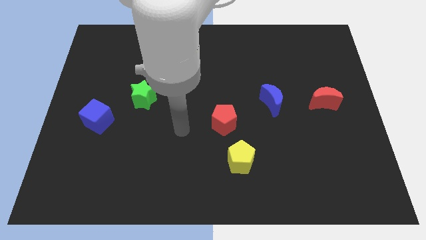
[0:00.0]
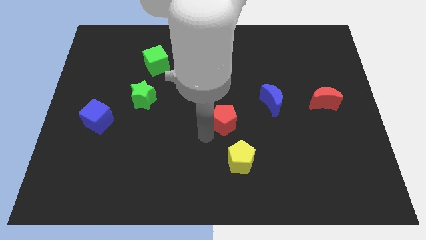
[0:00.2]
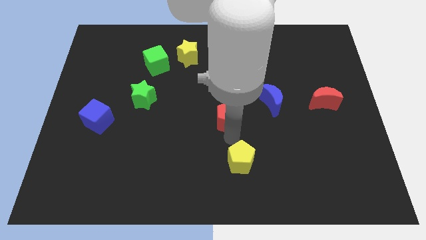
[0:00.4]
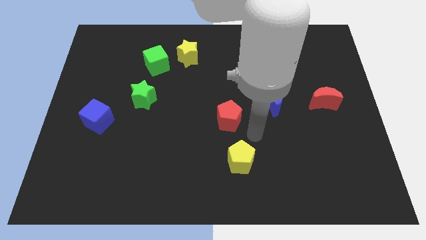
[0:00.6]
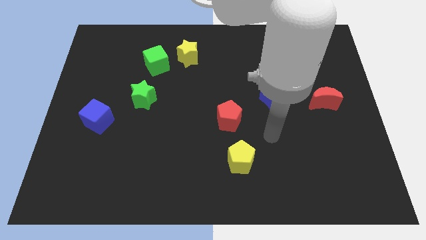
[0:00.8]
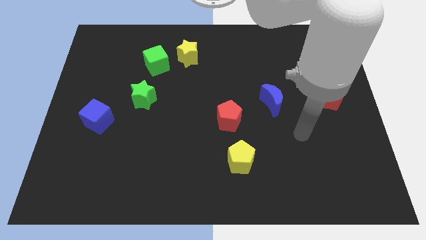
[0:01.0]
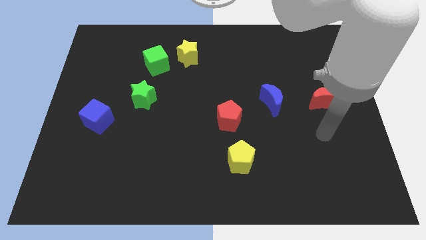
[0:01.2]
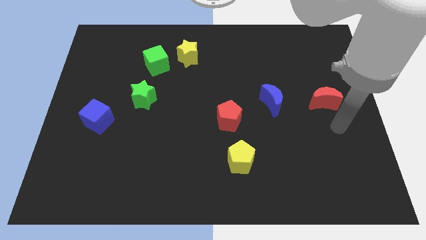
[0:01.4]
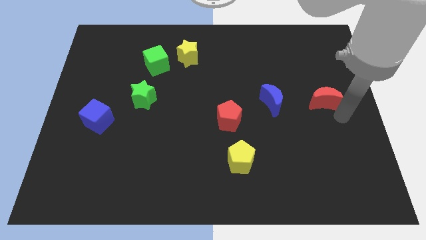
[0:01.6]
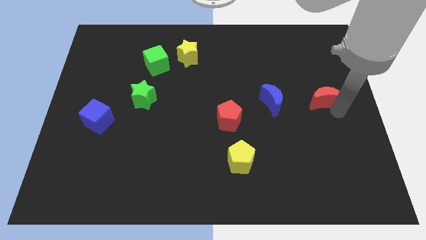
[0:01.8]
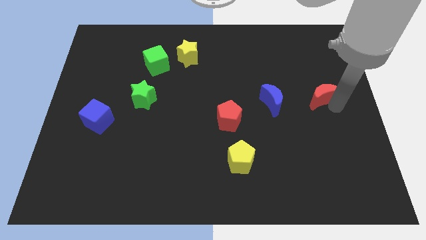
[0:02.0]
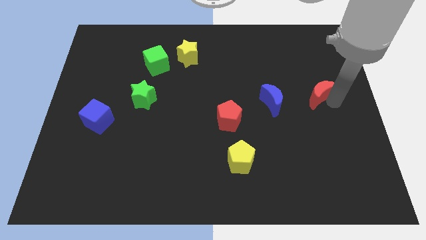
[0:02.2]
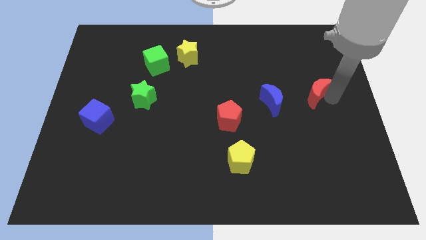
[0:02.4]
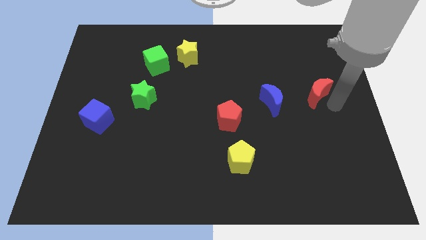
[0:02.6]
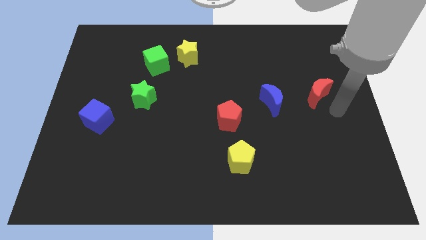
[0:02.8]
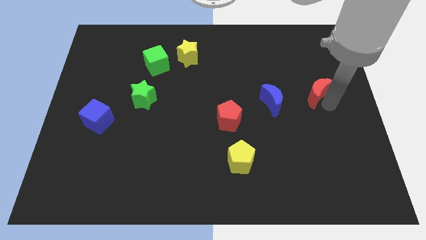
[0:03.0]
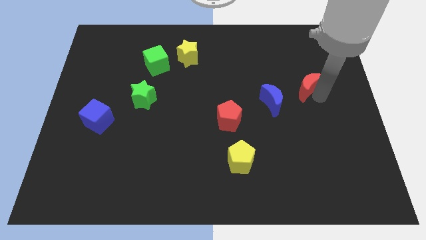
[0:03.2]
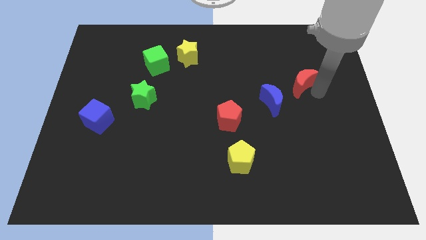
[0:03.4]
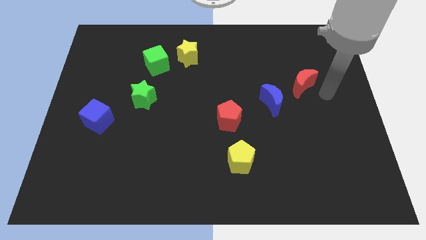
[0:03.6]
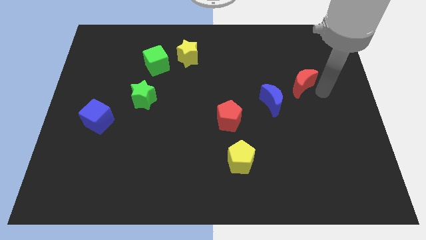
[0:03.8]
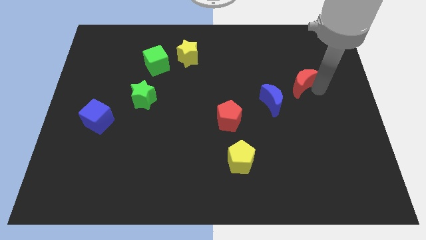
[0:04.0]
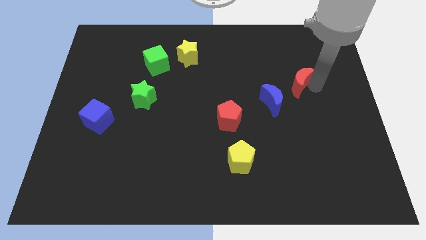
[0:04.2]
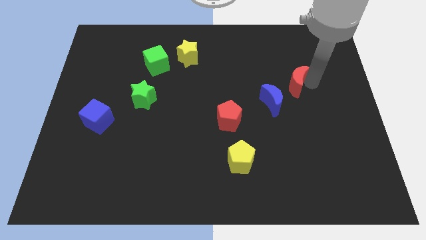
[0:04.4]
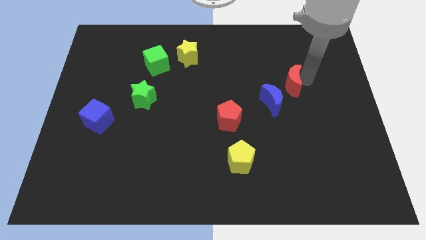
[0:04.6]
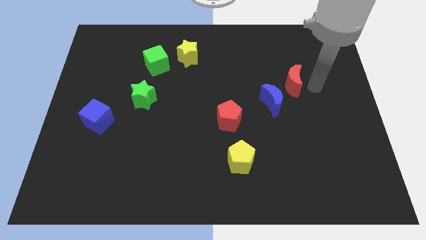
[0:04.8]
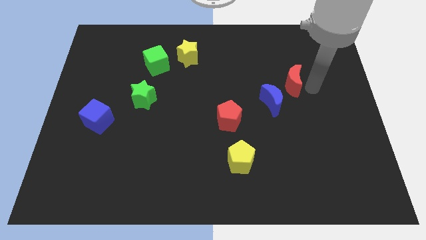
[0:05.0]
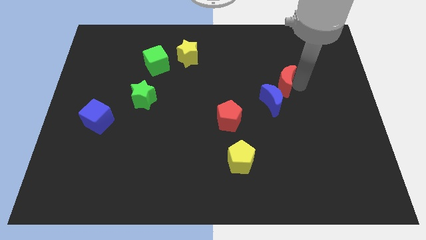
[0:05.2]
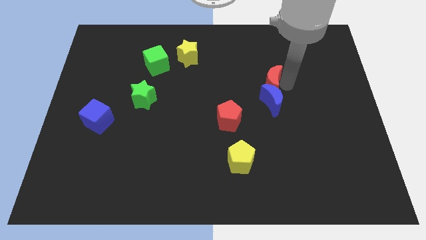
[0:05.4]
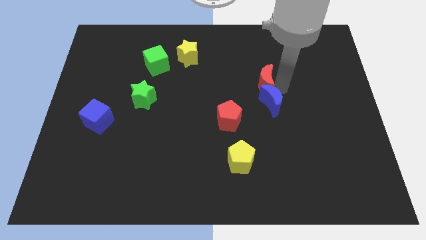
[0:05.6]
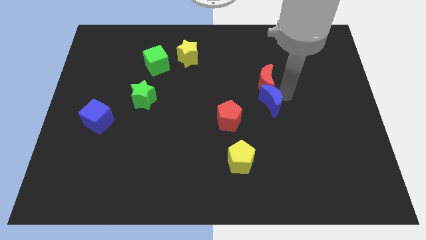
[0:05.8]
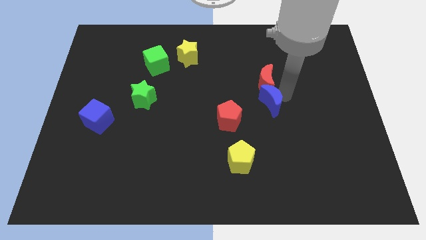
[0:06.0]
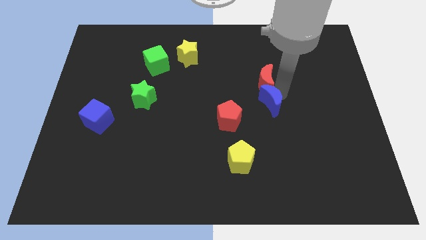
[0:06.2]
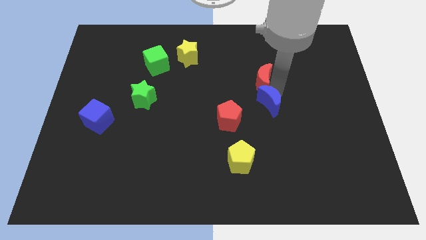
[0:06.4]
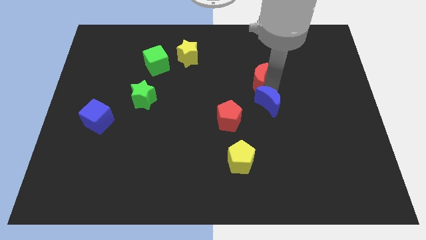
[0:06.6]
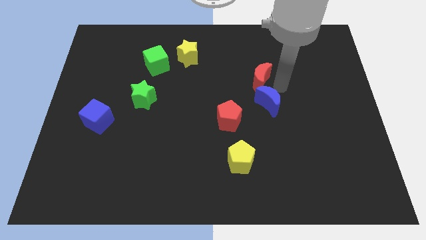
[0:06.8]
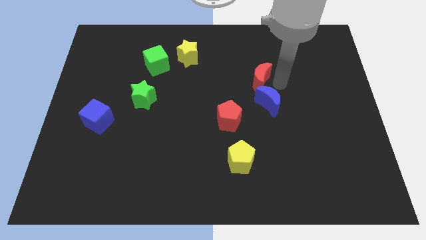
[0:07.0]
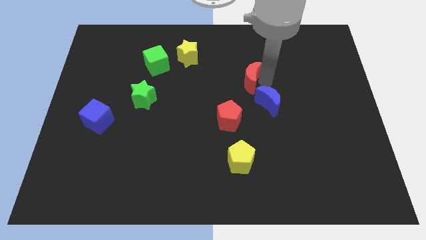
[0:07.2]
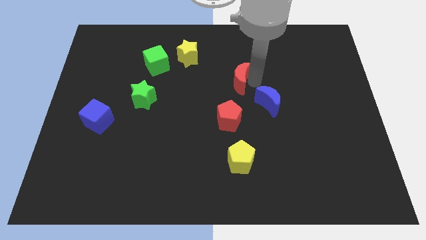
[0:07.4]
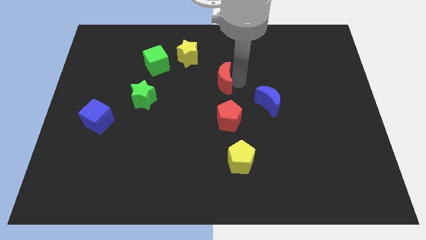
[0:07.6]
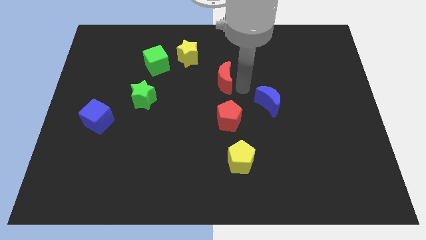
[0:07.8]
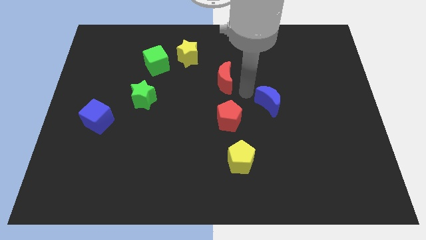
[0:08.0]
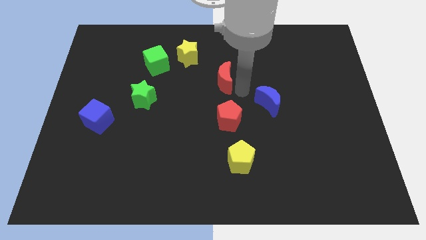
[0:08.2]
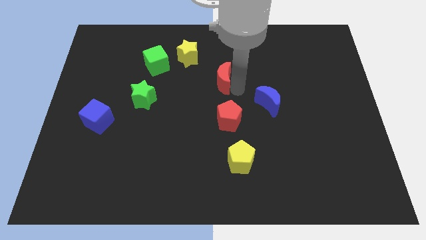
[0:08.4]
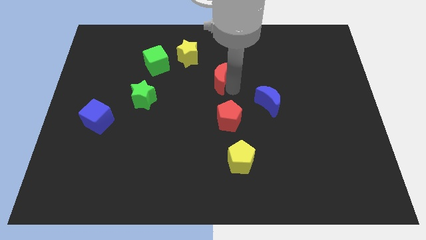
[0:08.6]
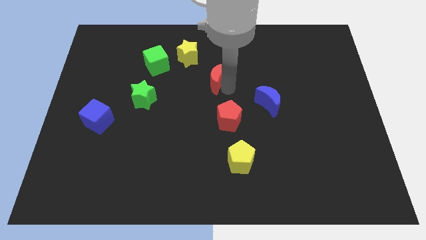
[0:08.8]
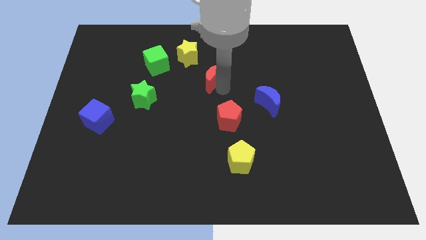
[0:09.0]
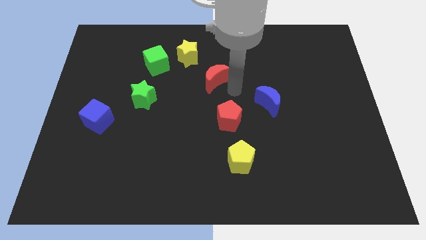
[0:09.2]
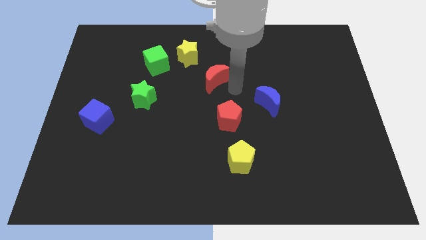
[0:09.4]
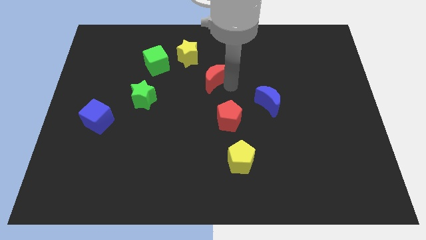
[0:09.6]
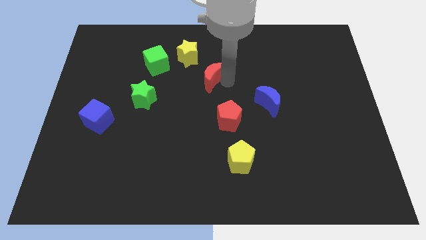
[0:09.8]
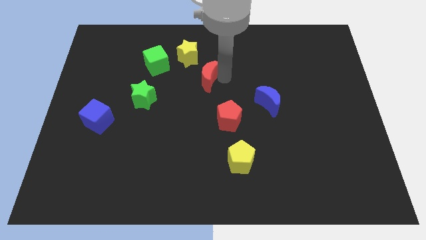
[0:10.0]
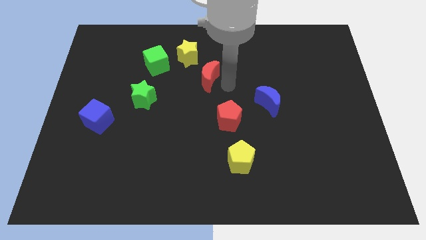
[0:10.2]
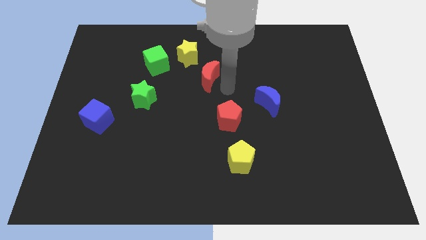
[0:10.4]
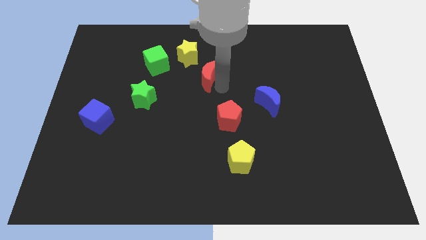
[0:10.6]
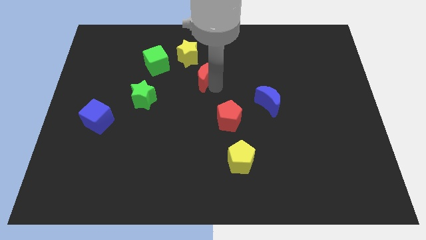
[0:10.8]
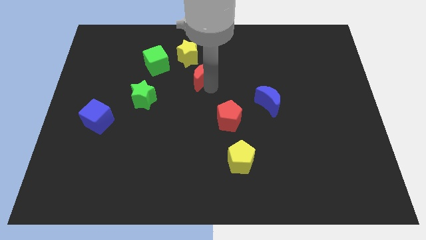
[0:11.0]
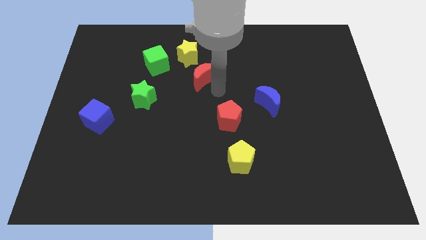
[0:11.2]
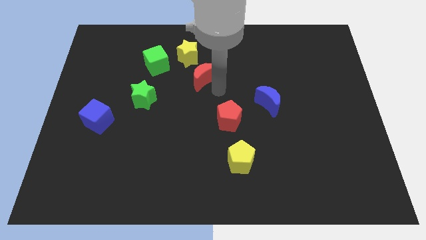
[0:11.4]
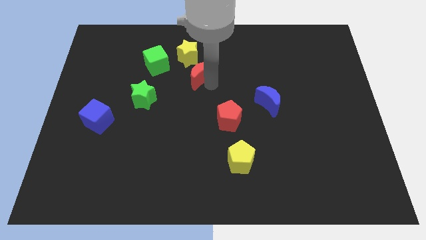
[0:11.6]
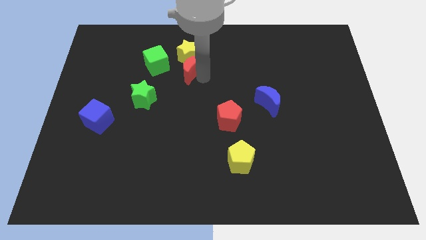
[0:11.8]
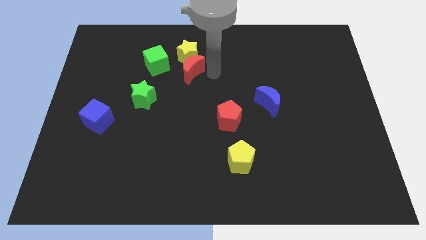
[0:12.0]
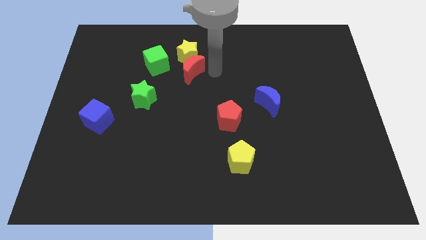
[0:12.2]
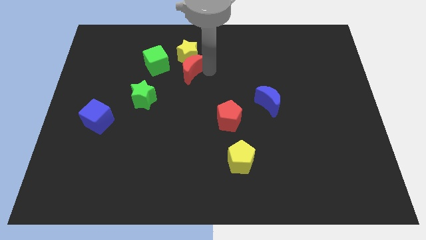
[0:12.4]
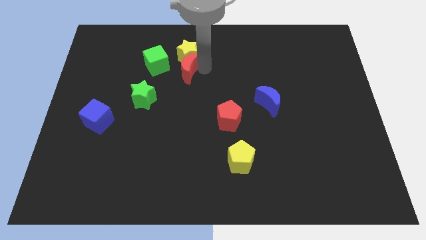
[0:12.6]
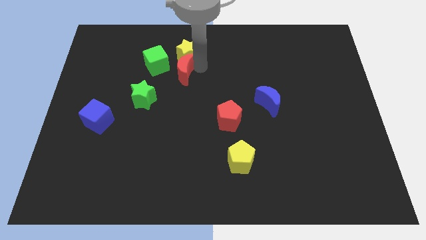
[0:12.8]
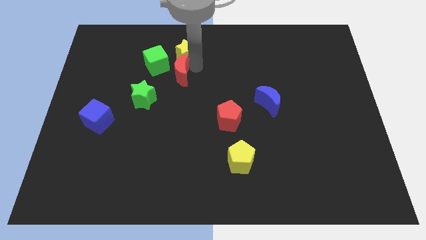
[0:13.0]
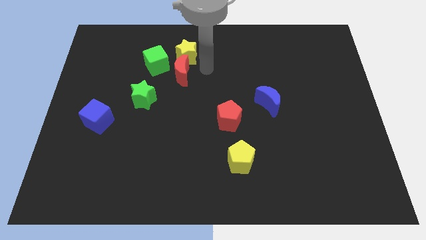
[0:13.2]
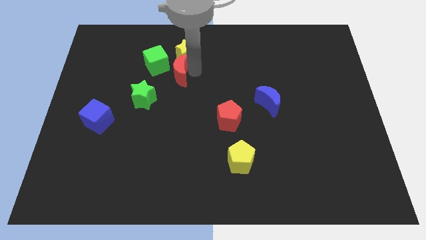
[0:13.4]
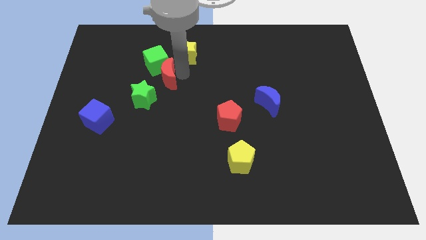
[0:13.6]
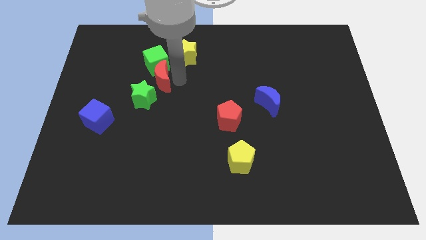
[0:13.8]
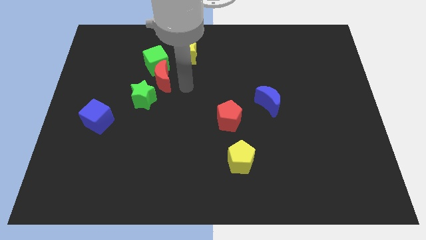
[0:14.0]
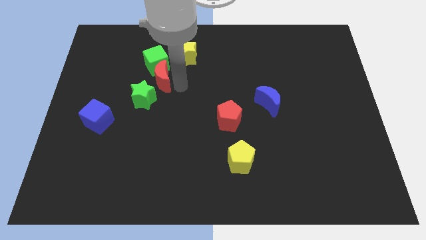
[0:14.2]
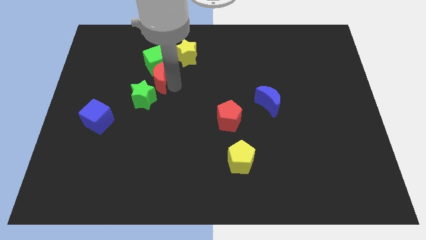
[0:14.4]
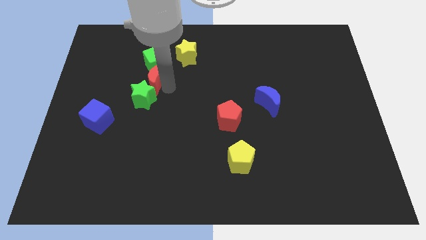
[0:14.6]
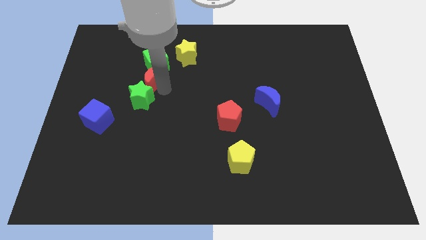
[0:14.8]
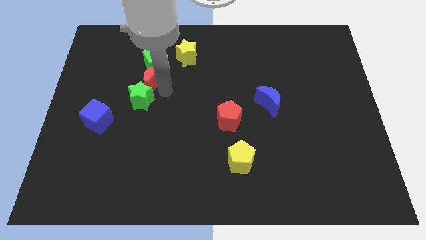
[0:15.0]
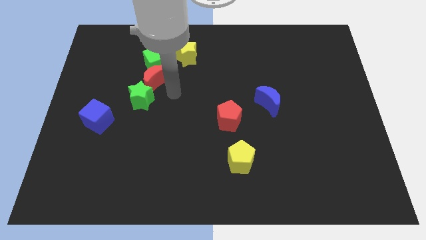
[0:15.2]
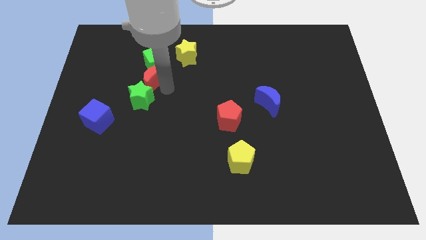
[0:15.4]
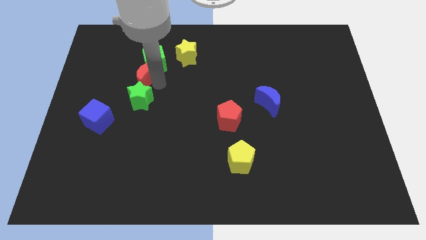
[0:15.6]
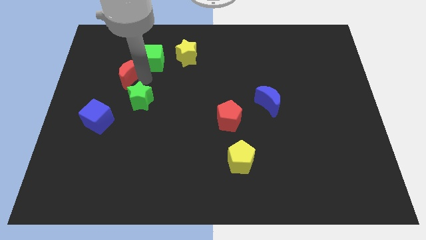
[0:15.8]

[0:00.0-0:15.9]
put the red moon left of the green cube

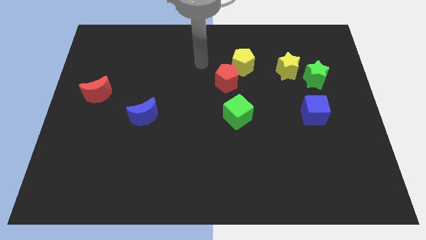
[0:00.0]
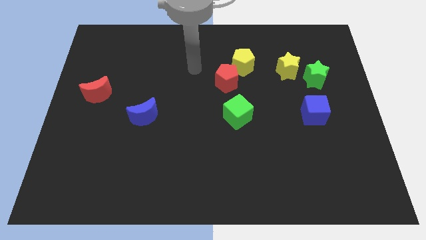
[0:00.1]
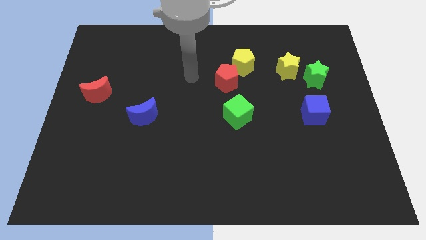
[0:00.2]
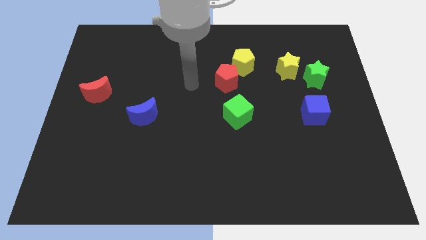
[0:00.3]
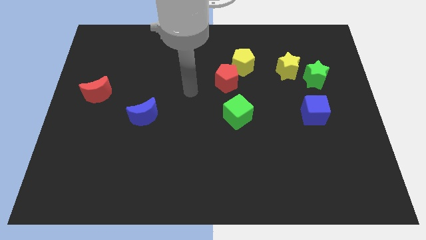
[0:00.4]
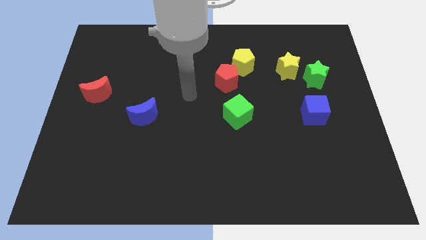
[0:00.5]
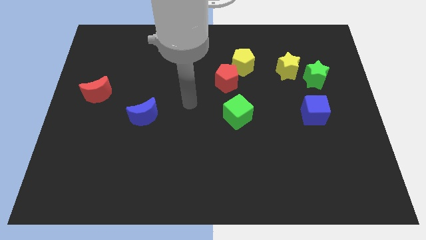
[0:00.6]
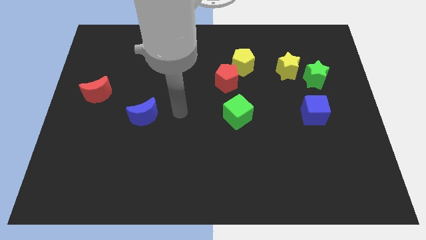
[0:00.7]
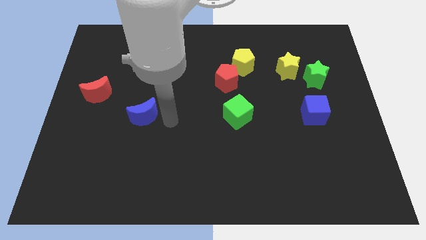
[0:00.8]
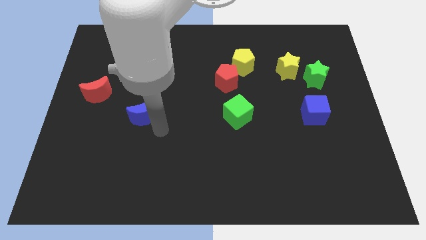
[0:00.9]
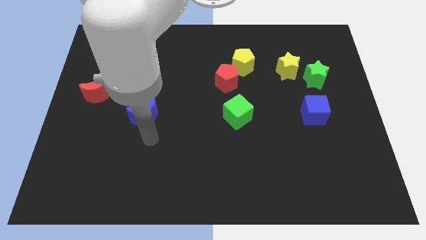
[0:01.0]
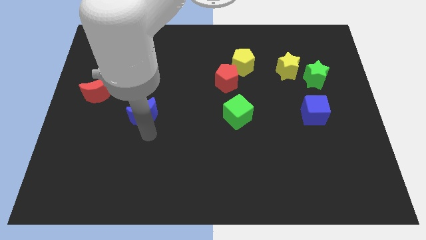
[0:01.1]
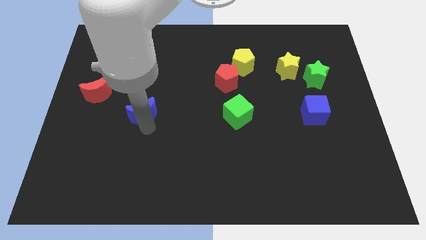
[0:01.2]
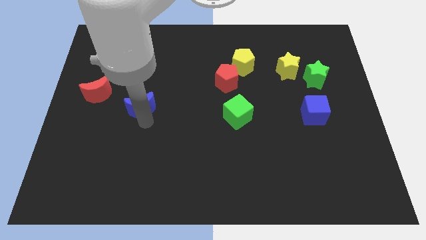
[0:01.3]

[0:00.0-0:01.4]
move the blue moon right of the red moon
